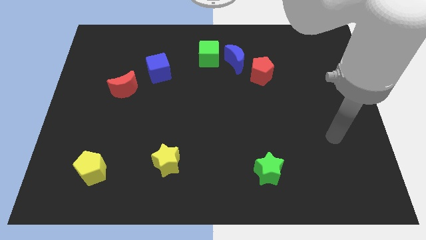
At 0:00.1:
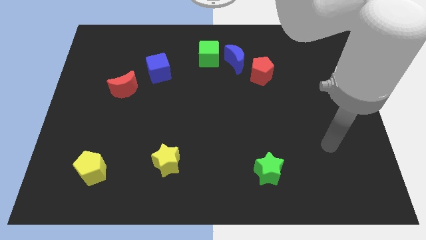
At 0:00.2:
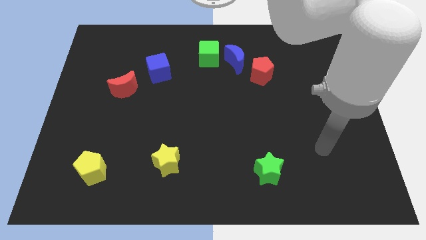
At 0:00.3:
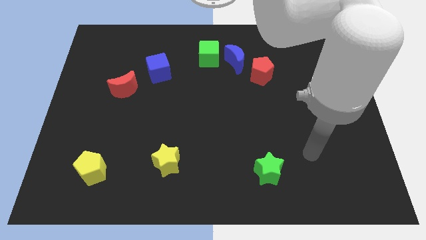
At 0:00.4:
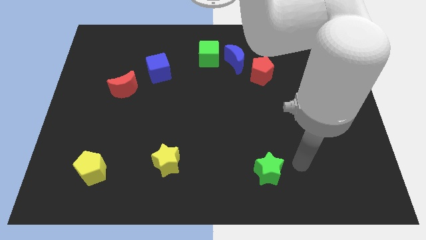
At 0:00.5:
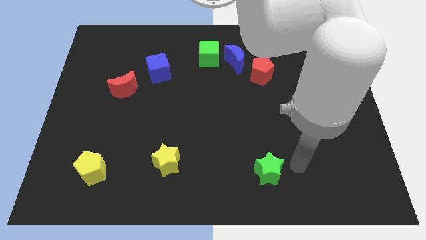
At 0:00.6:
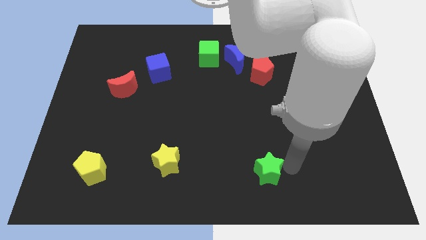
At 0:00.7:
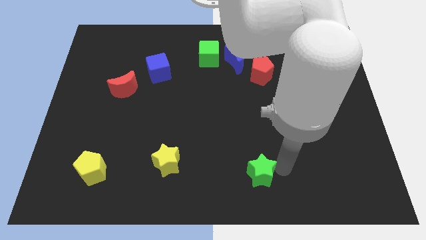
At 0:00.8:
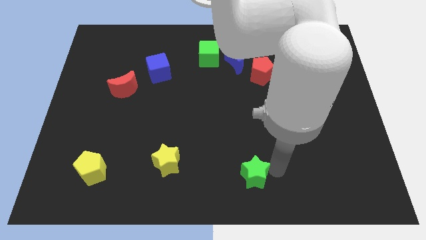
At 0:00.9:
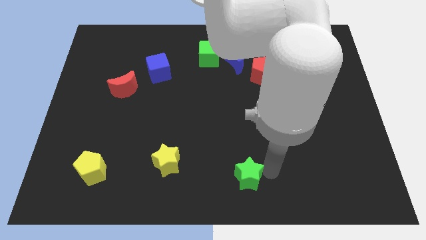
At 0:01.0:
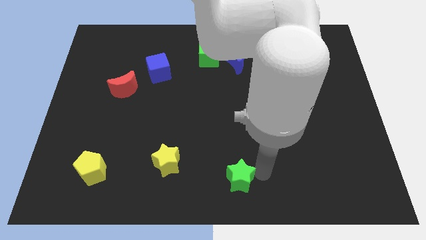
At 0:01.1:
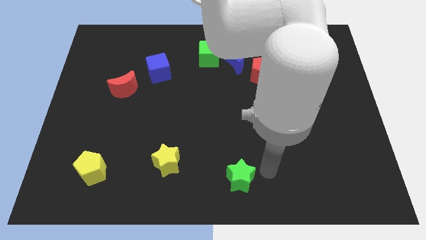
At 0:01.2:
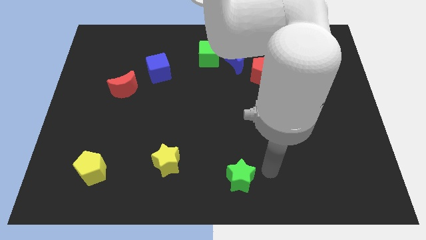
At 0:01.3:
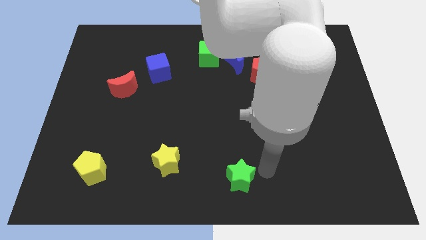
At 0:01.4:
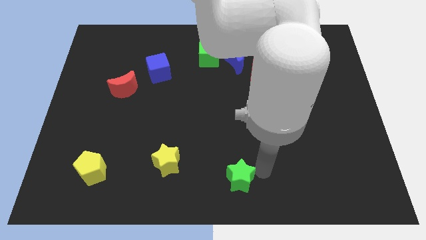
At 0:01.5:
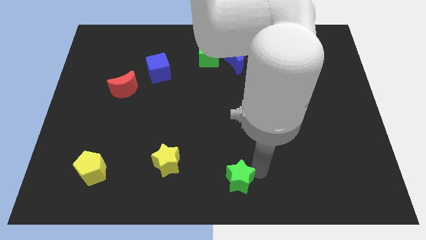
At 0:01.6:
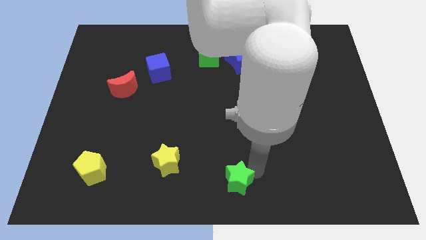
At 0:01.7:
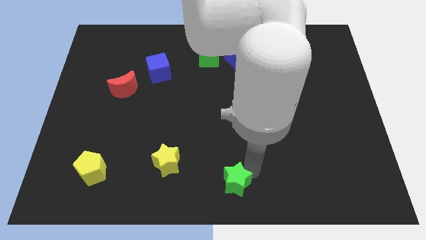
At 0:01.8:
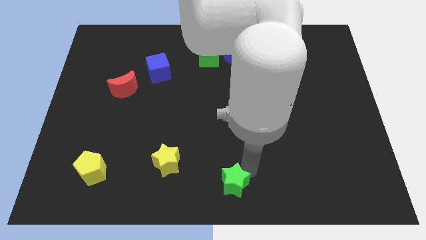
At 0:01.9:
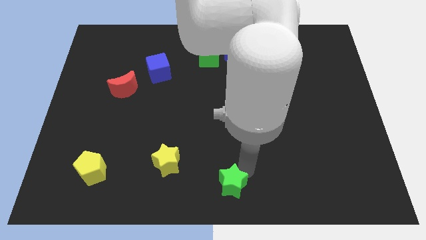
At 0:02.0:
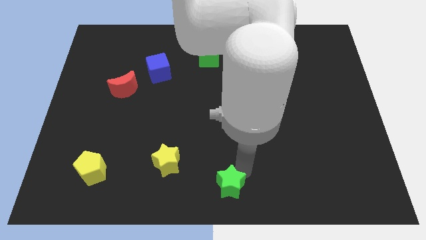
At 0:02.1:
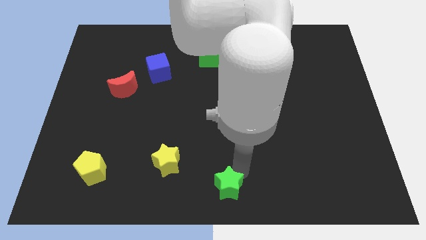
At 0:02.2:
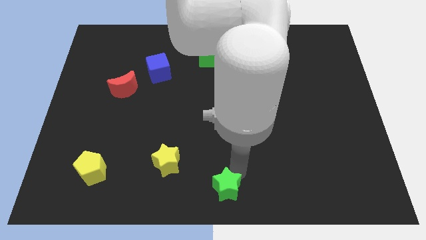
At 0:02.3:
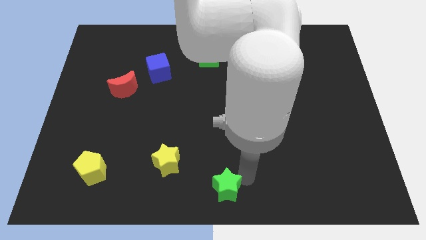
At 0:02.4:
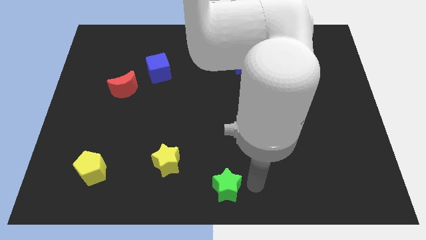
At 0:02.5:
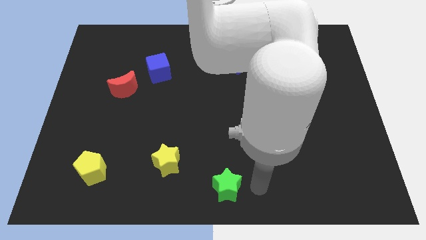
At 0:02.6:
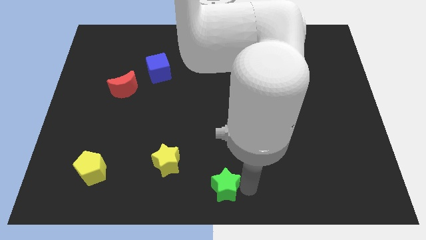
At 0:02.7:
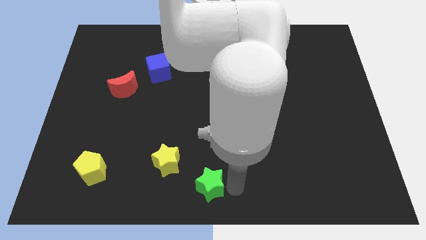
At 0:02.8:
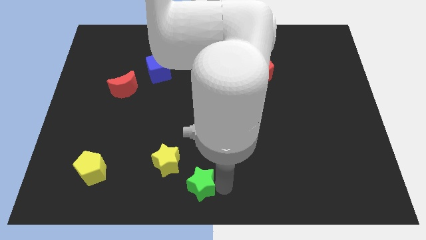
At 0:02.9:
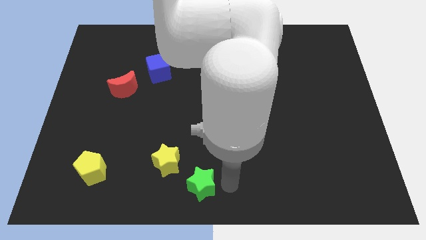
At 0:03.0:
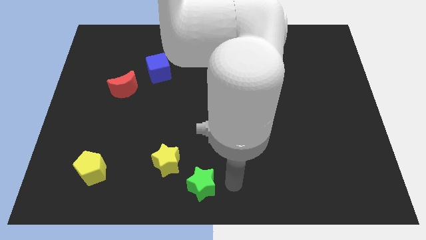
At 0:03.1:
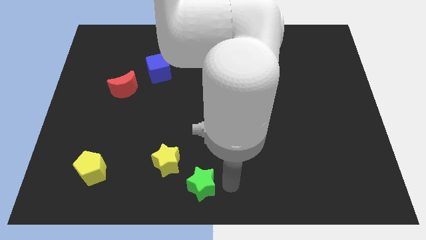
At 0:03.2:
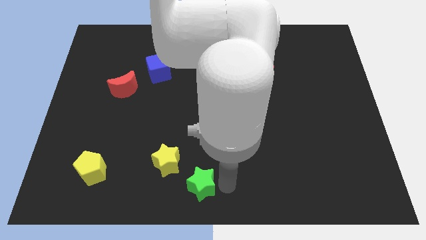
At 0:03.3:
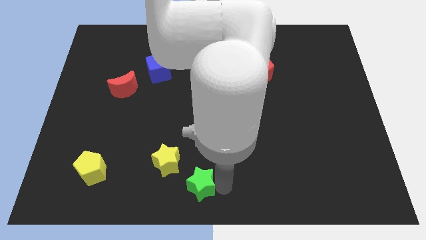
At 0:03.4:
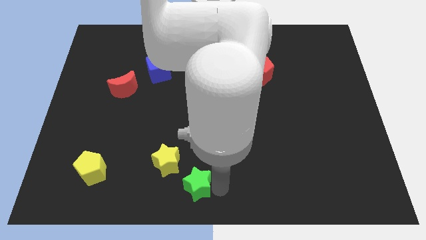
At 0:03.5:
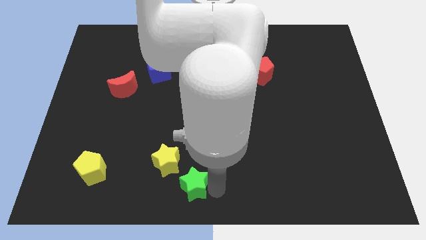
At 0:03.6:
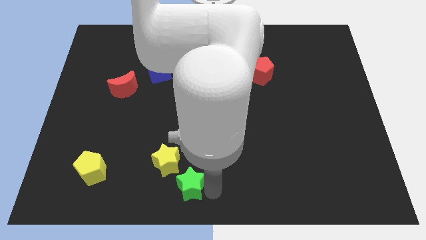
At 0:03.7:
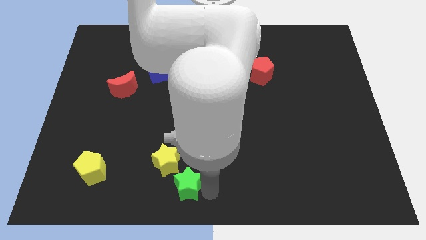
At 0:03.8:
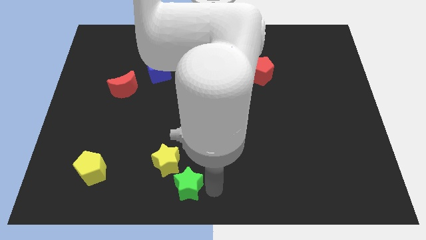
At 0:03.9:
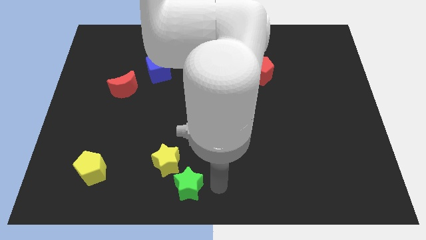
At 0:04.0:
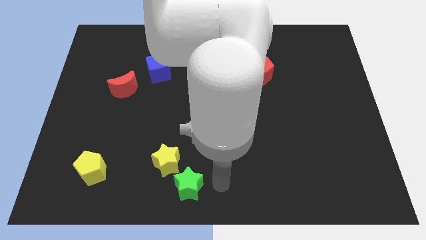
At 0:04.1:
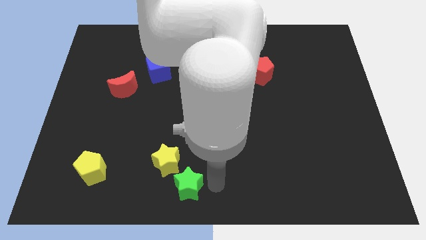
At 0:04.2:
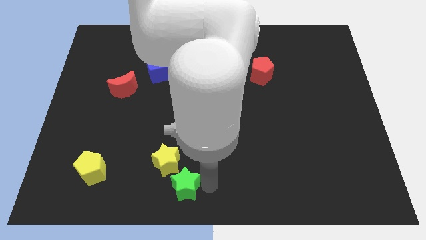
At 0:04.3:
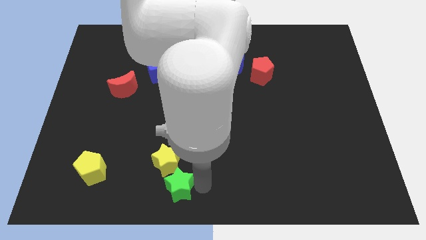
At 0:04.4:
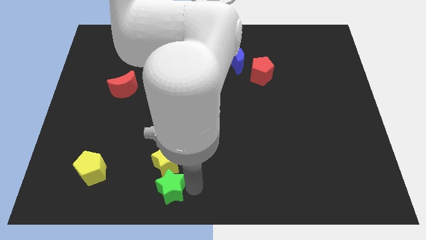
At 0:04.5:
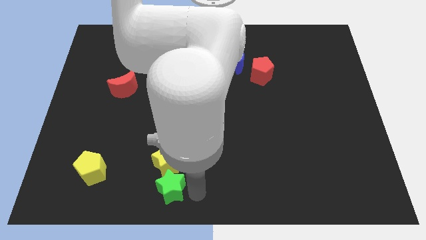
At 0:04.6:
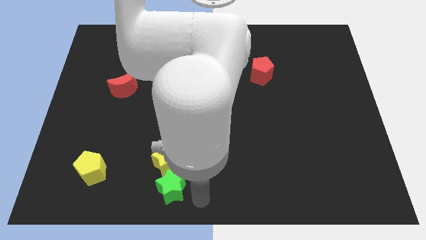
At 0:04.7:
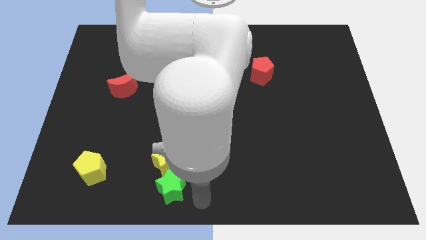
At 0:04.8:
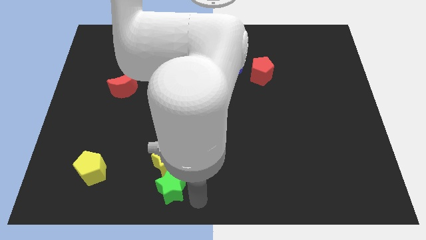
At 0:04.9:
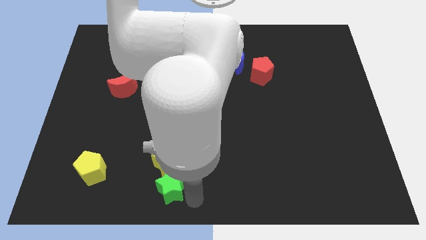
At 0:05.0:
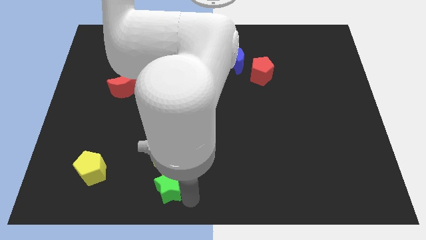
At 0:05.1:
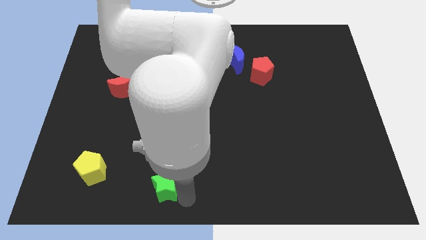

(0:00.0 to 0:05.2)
move the green star left

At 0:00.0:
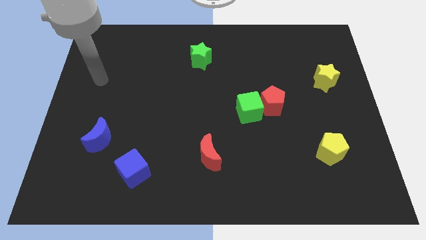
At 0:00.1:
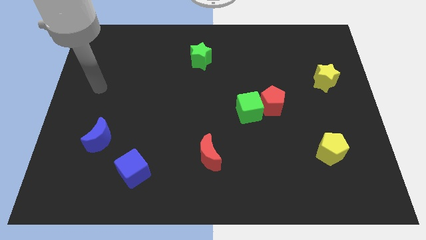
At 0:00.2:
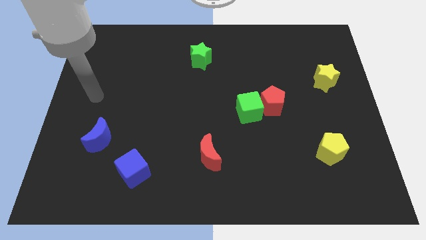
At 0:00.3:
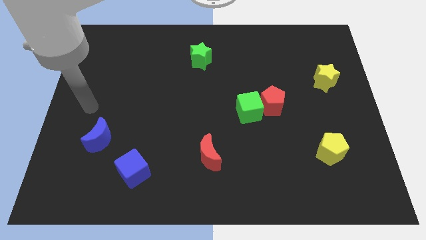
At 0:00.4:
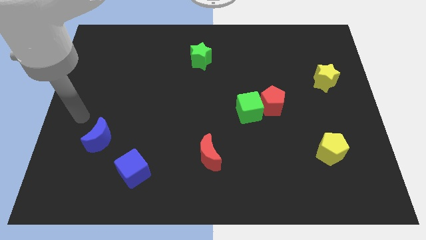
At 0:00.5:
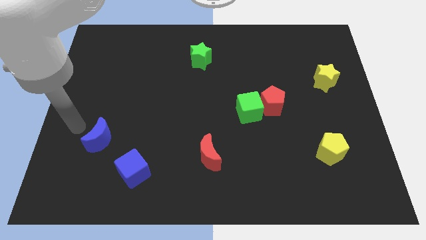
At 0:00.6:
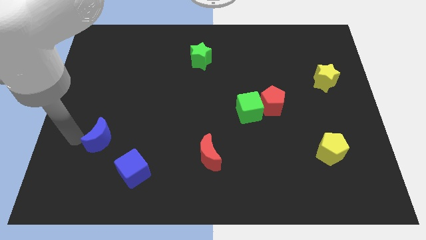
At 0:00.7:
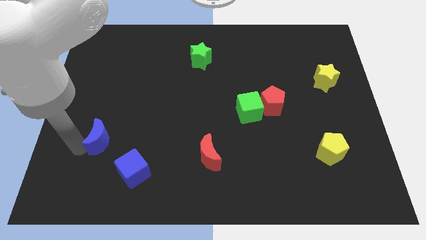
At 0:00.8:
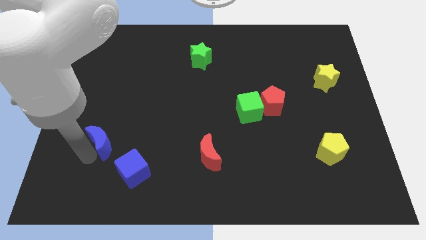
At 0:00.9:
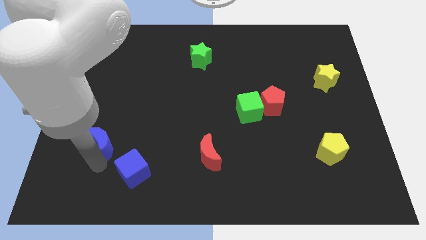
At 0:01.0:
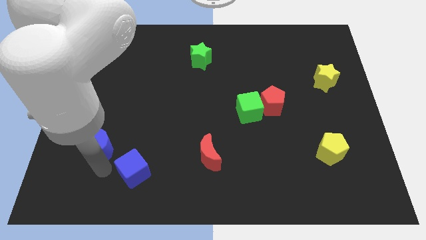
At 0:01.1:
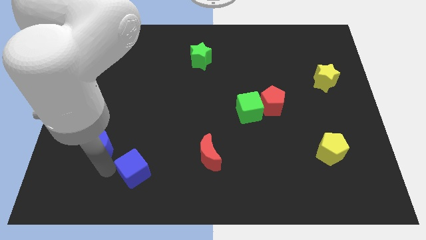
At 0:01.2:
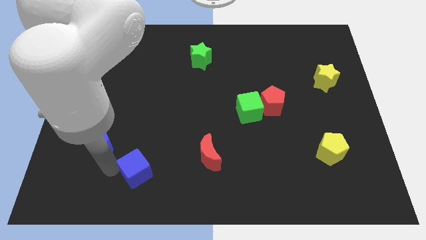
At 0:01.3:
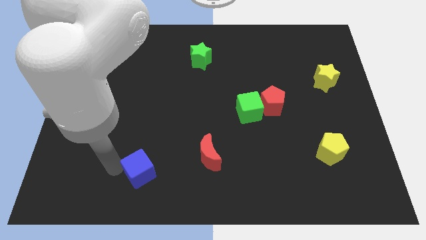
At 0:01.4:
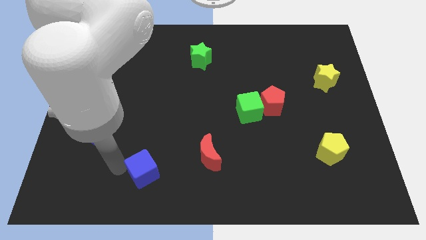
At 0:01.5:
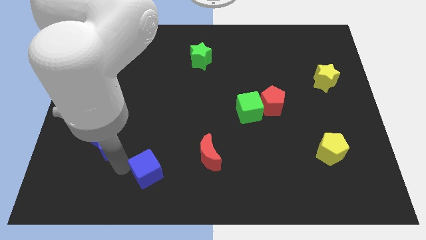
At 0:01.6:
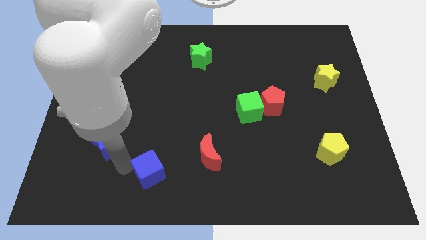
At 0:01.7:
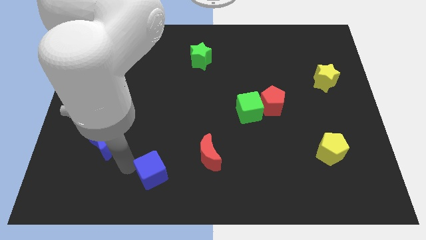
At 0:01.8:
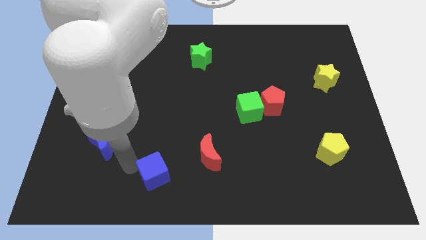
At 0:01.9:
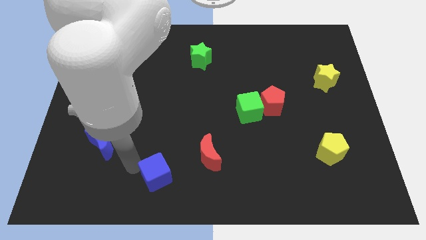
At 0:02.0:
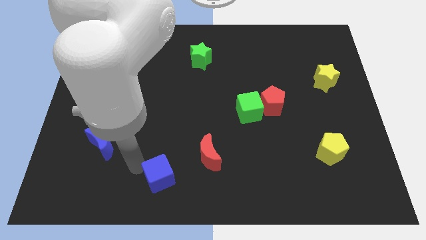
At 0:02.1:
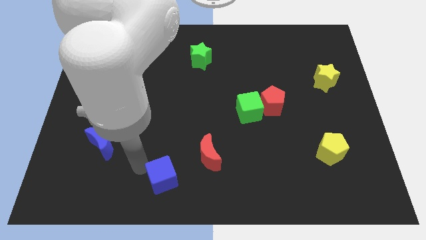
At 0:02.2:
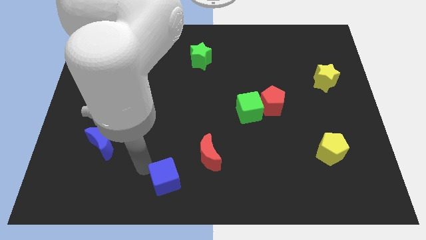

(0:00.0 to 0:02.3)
slightly slide the blue cube to the right

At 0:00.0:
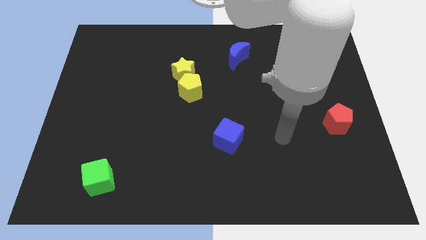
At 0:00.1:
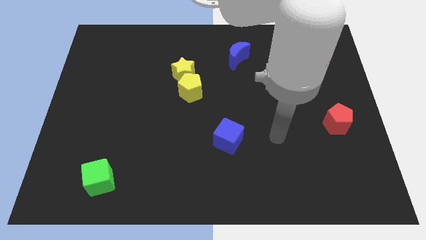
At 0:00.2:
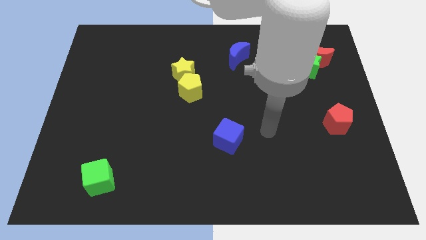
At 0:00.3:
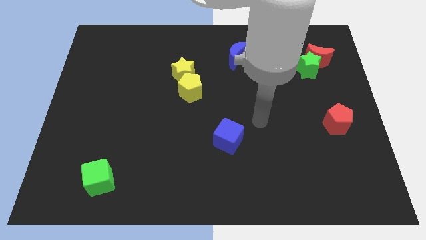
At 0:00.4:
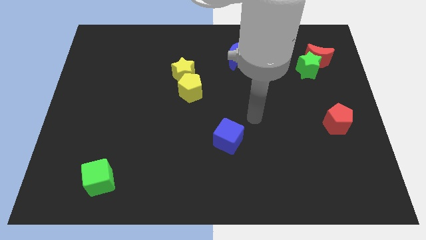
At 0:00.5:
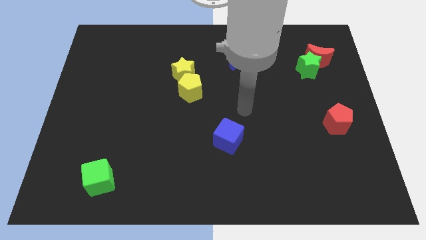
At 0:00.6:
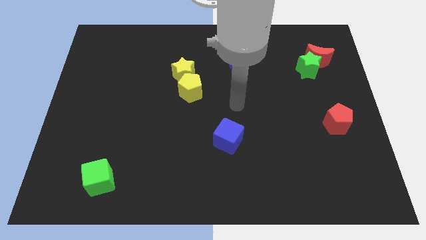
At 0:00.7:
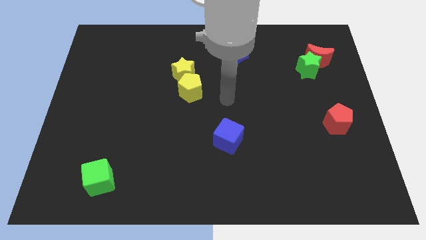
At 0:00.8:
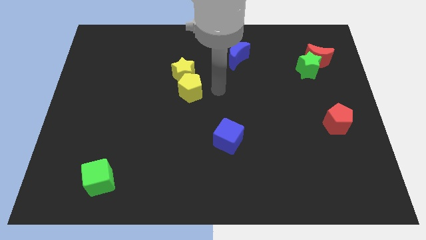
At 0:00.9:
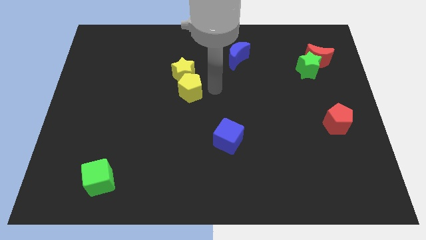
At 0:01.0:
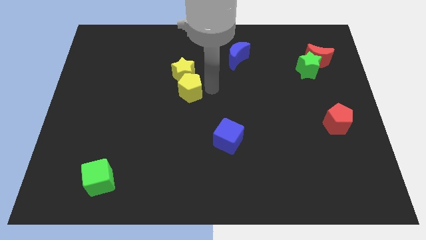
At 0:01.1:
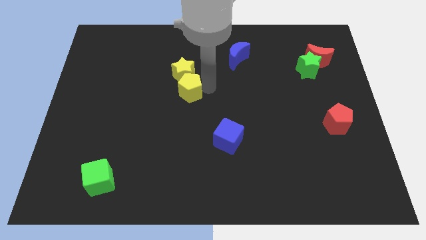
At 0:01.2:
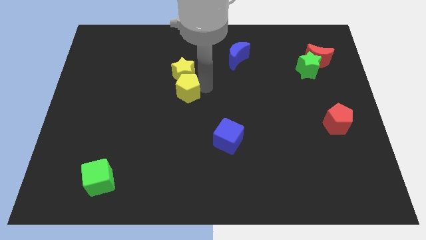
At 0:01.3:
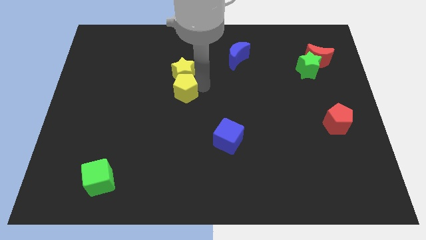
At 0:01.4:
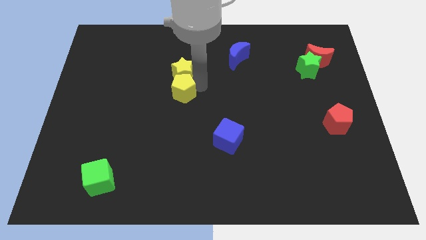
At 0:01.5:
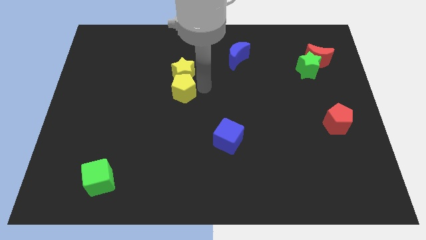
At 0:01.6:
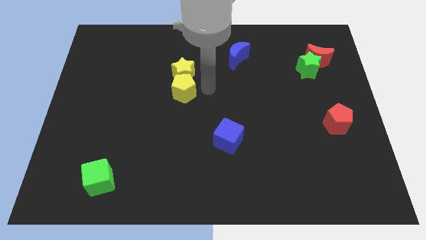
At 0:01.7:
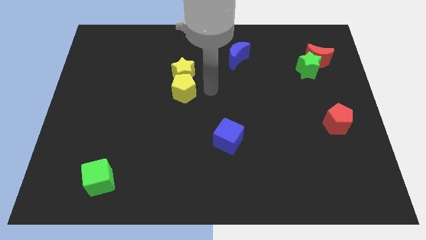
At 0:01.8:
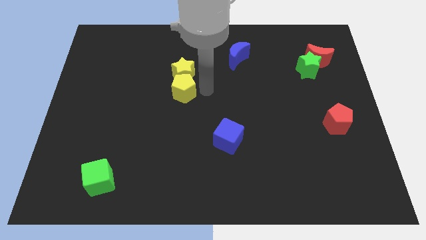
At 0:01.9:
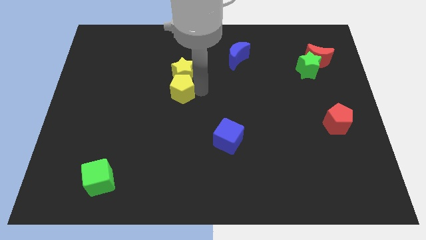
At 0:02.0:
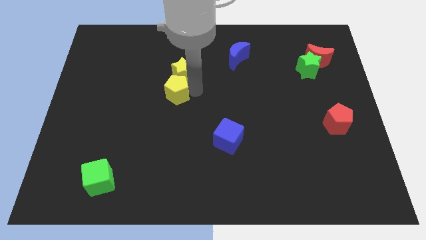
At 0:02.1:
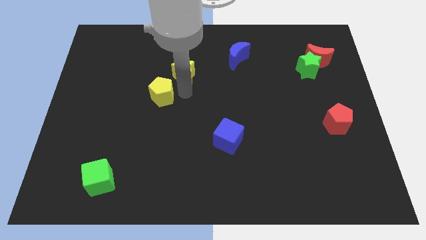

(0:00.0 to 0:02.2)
slide the yellow pentagon left a little bit
